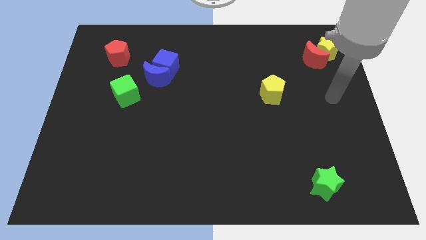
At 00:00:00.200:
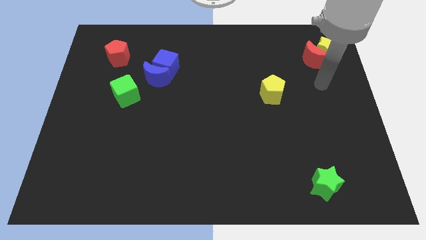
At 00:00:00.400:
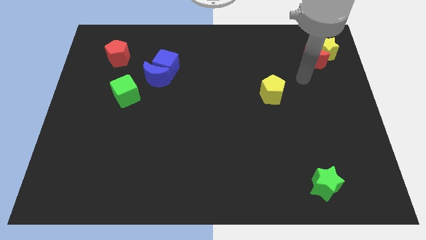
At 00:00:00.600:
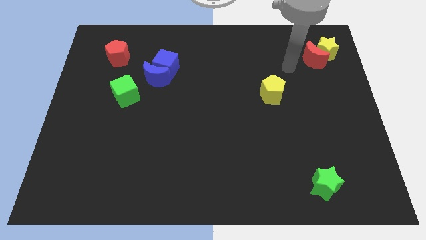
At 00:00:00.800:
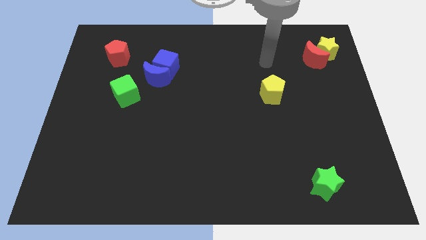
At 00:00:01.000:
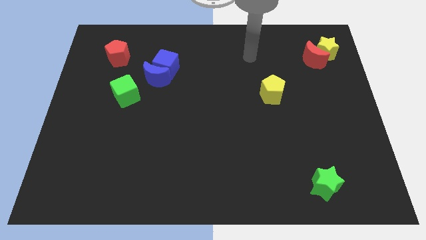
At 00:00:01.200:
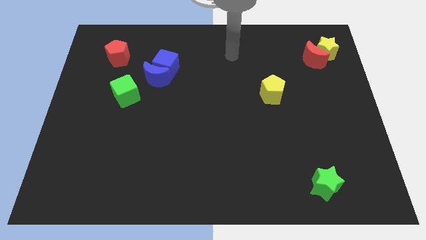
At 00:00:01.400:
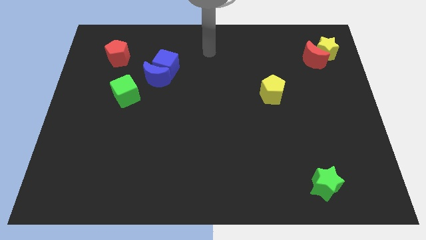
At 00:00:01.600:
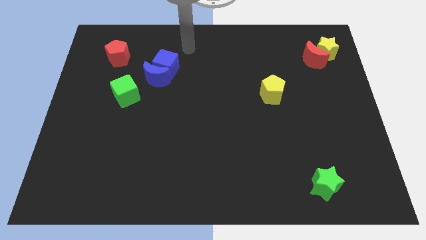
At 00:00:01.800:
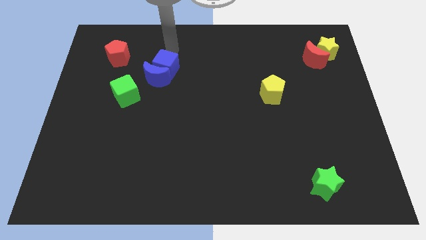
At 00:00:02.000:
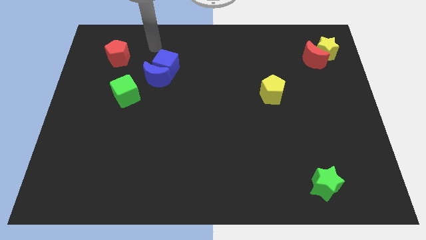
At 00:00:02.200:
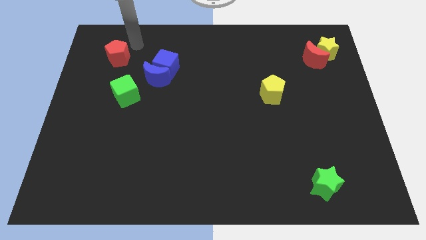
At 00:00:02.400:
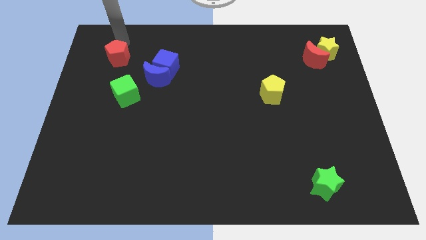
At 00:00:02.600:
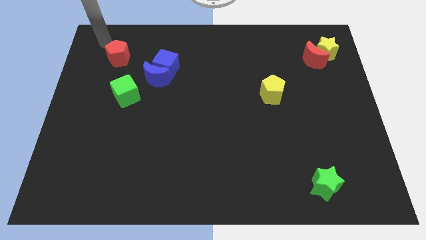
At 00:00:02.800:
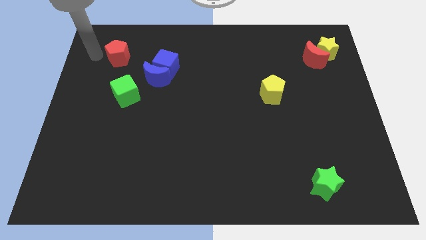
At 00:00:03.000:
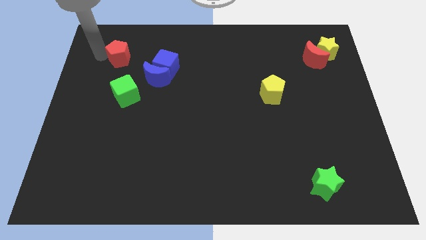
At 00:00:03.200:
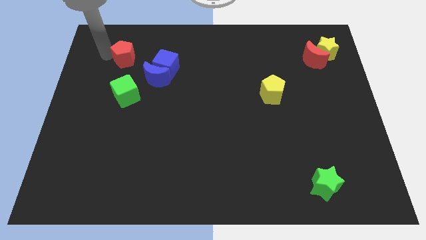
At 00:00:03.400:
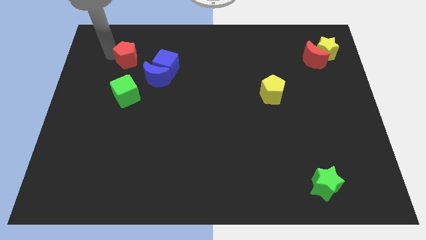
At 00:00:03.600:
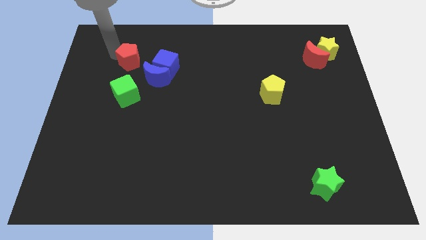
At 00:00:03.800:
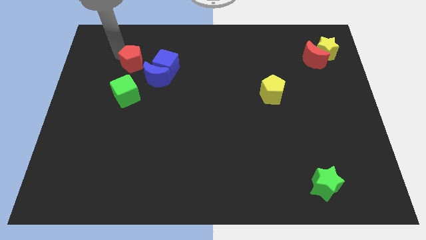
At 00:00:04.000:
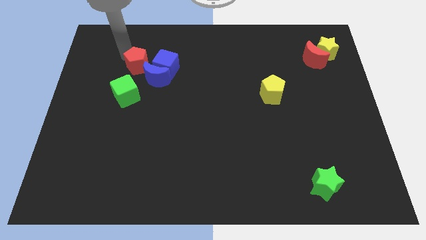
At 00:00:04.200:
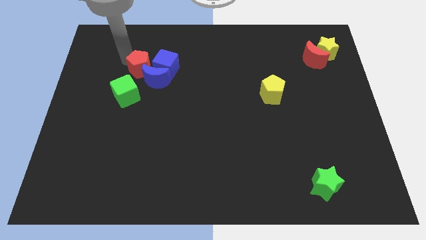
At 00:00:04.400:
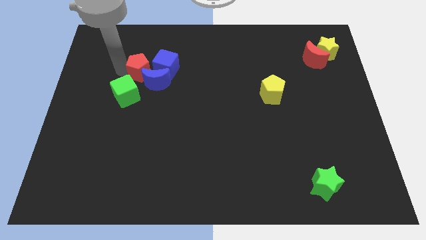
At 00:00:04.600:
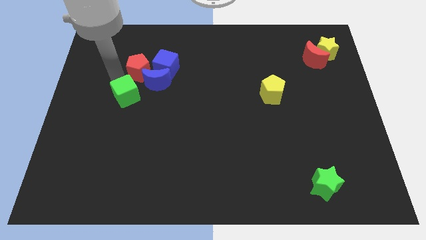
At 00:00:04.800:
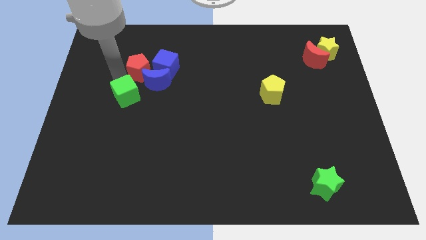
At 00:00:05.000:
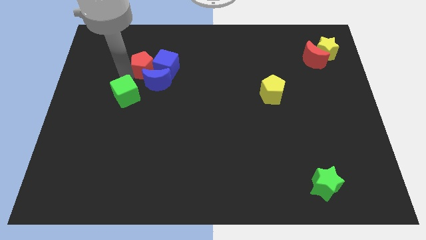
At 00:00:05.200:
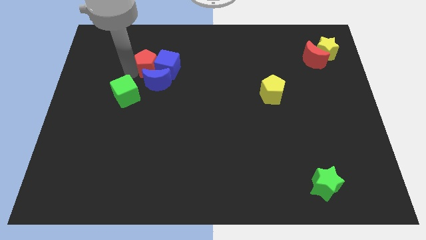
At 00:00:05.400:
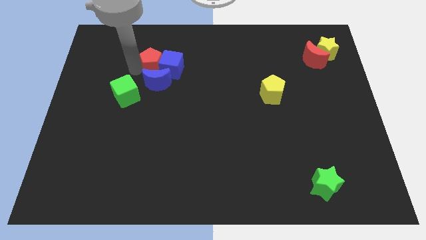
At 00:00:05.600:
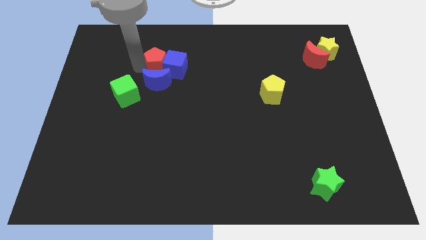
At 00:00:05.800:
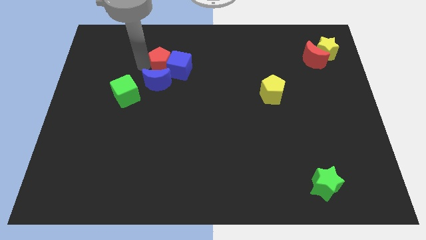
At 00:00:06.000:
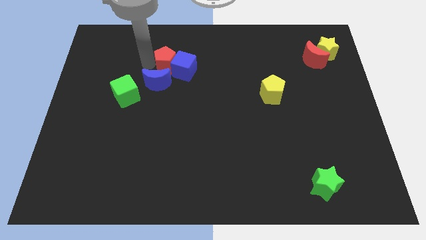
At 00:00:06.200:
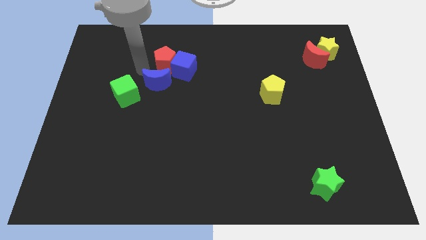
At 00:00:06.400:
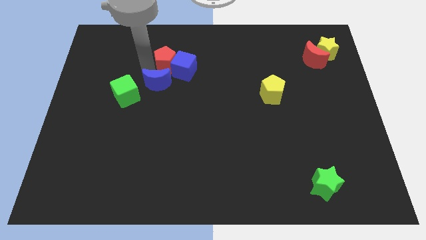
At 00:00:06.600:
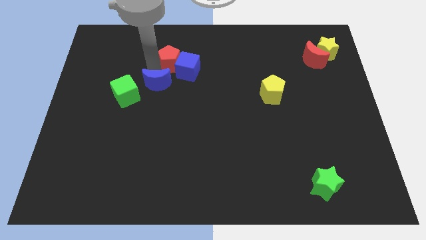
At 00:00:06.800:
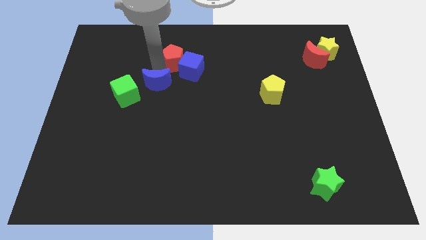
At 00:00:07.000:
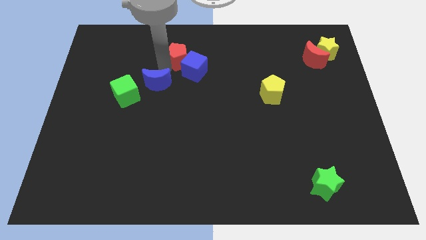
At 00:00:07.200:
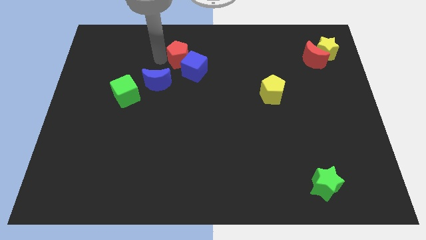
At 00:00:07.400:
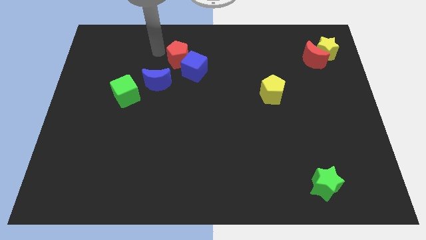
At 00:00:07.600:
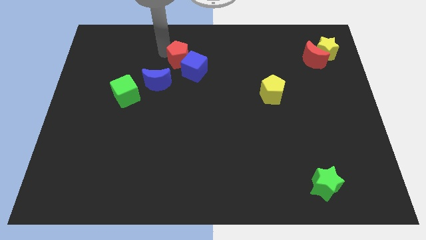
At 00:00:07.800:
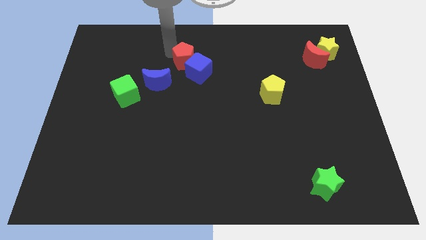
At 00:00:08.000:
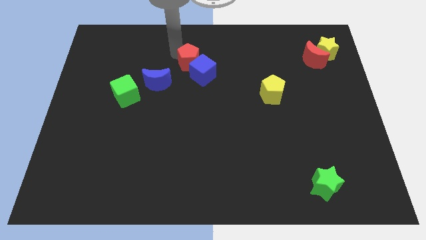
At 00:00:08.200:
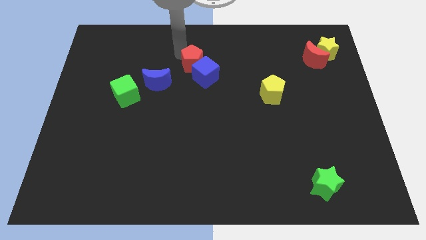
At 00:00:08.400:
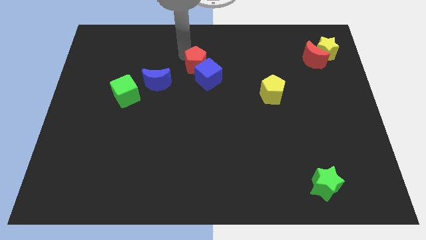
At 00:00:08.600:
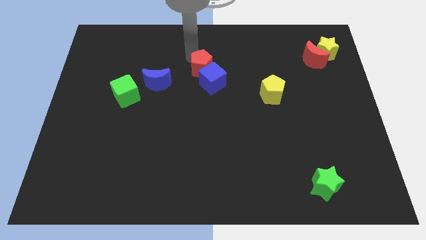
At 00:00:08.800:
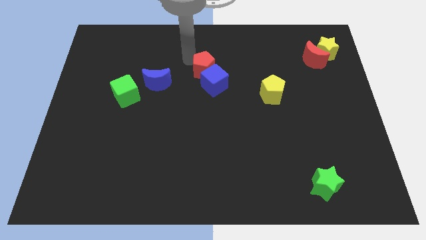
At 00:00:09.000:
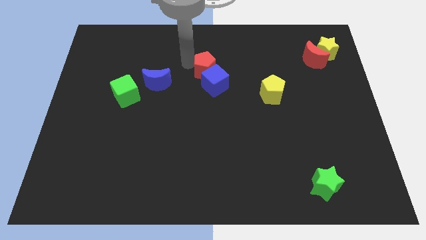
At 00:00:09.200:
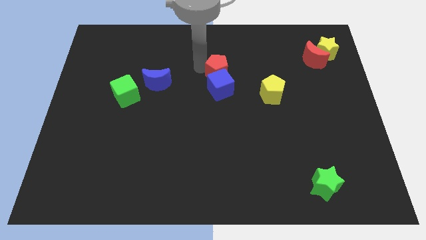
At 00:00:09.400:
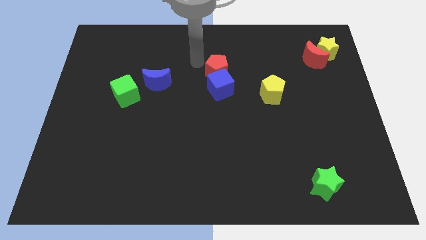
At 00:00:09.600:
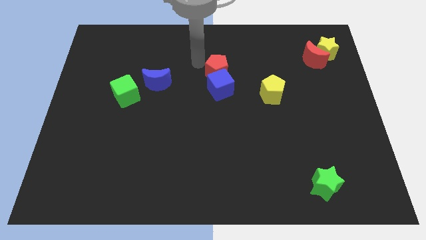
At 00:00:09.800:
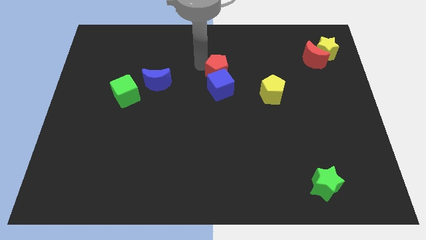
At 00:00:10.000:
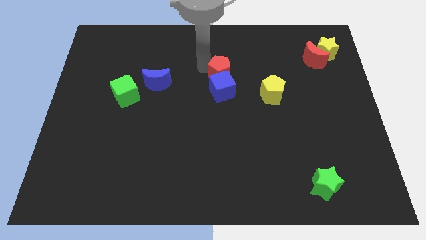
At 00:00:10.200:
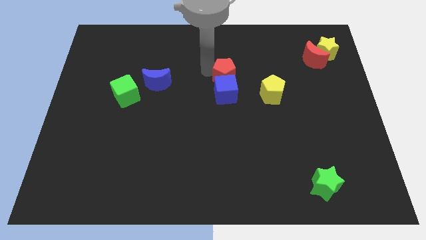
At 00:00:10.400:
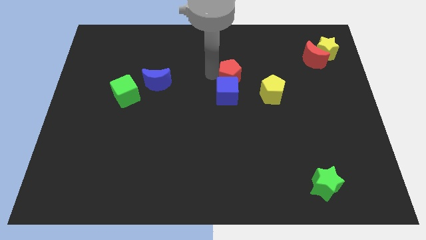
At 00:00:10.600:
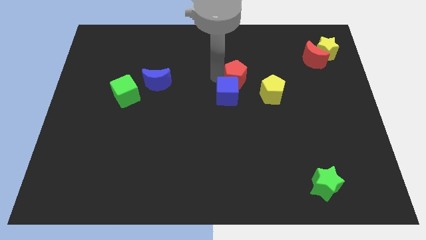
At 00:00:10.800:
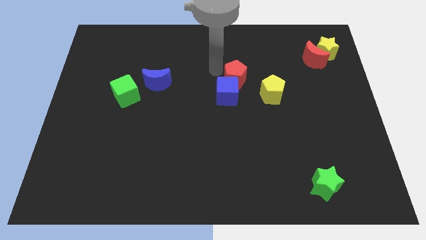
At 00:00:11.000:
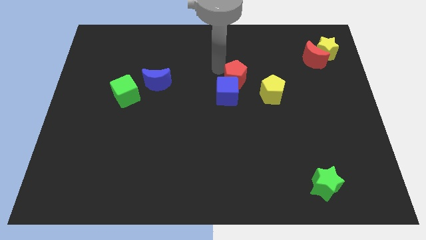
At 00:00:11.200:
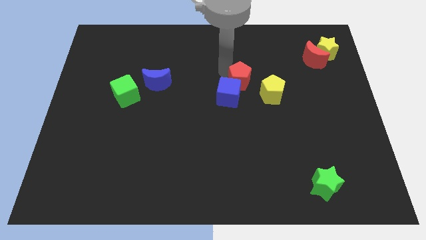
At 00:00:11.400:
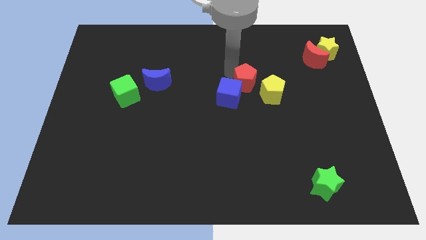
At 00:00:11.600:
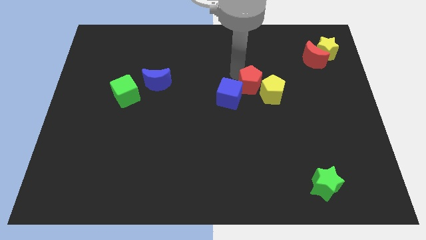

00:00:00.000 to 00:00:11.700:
put the red pentagon next to the yellow pentagon

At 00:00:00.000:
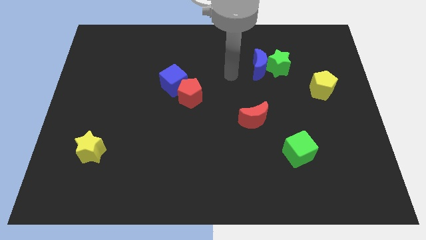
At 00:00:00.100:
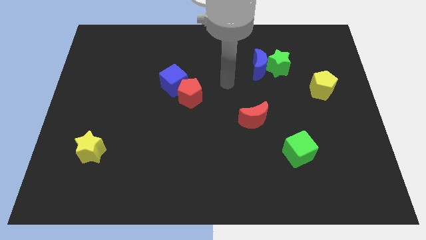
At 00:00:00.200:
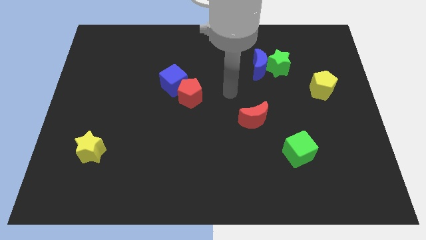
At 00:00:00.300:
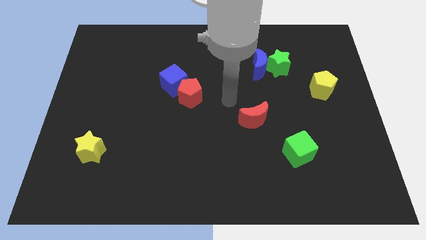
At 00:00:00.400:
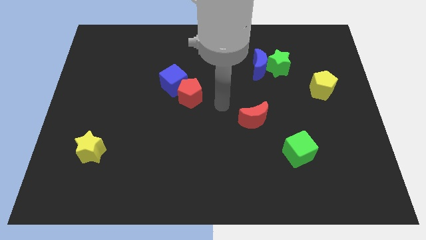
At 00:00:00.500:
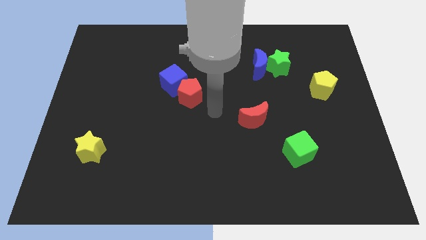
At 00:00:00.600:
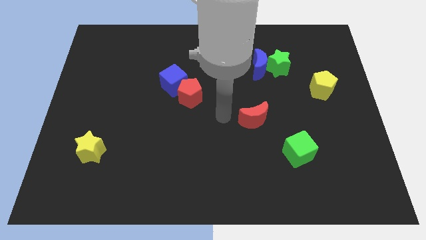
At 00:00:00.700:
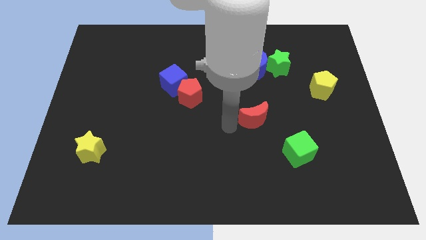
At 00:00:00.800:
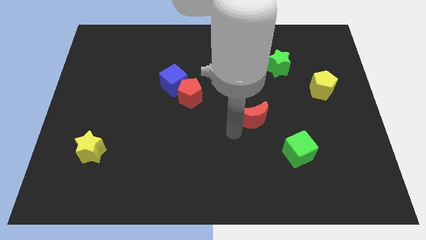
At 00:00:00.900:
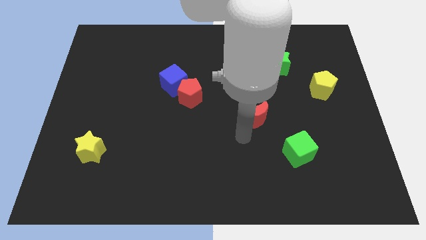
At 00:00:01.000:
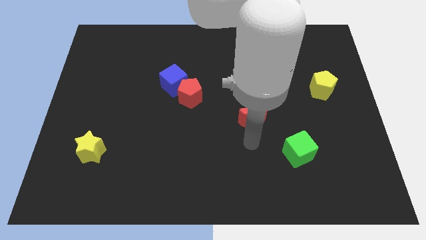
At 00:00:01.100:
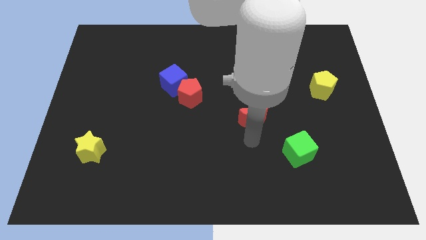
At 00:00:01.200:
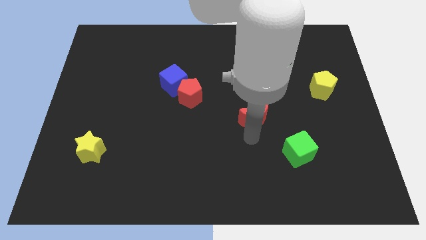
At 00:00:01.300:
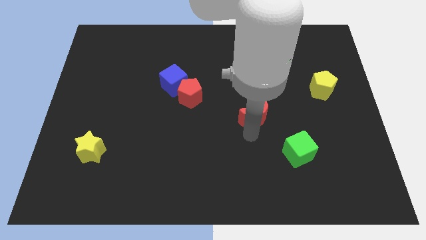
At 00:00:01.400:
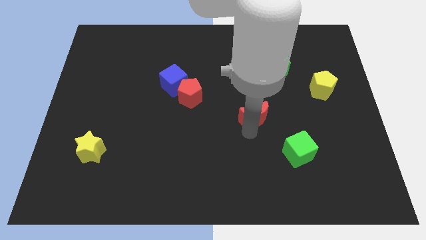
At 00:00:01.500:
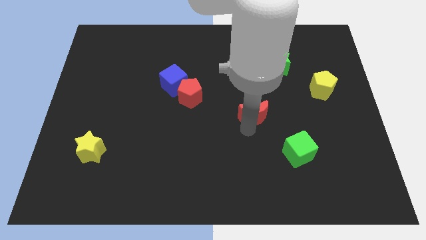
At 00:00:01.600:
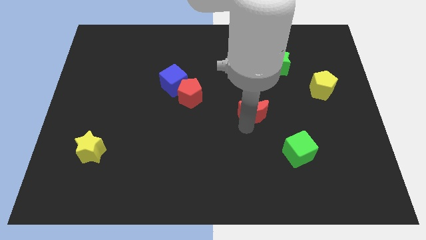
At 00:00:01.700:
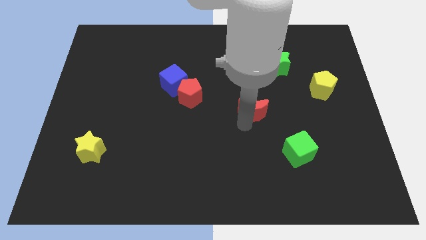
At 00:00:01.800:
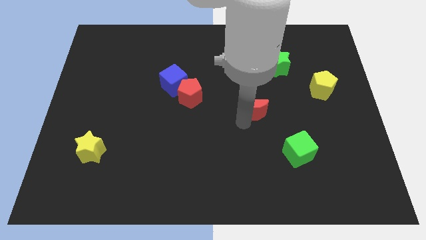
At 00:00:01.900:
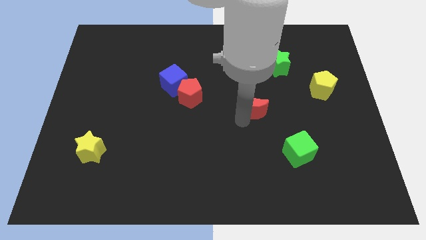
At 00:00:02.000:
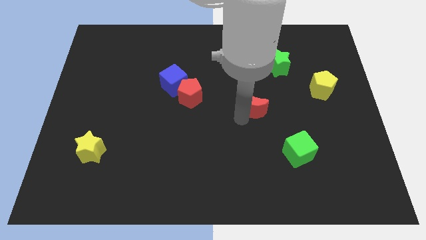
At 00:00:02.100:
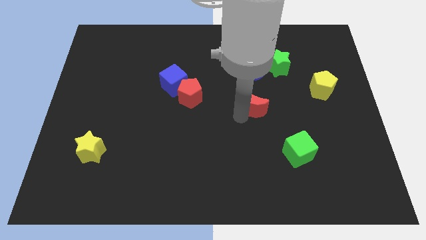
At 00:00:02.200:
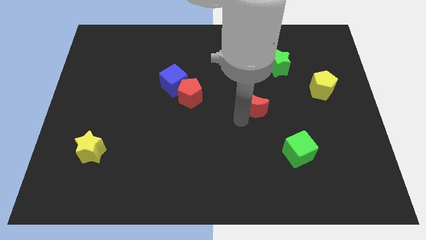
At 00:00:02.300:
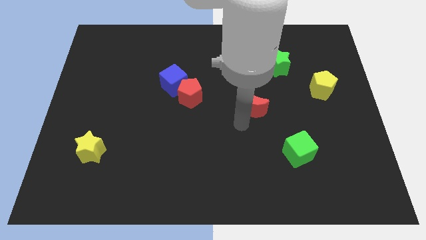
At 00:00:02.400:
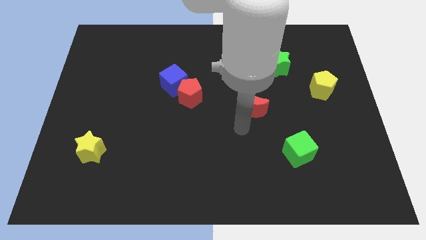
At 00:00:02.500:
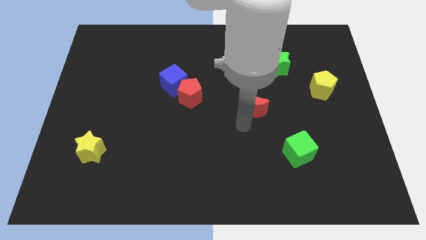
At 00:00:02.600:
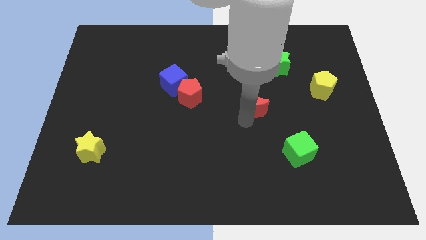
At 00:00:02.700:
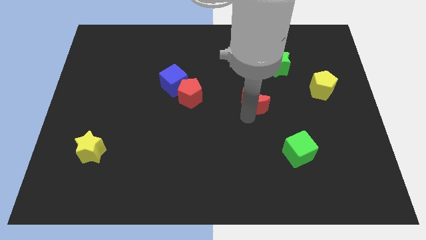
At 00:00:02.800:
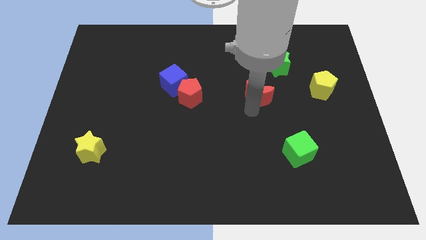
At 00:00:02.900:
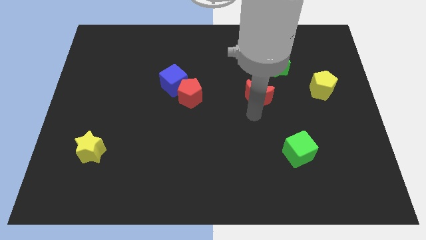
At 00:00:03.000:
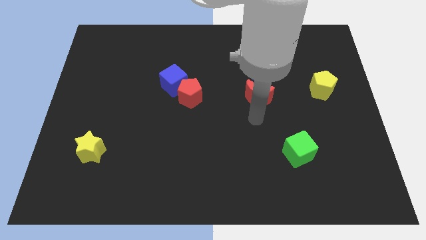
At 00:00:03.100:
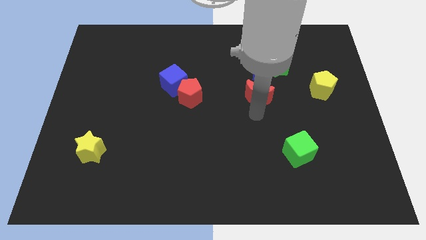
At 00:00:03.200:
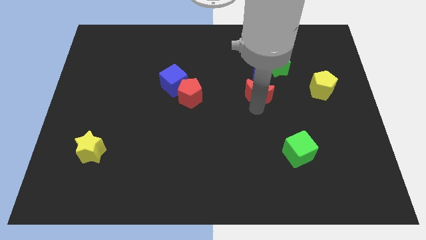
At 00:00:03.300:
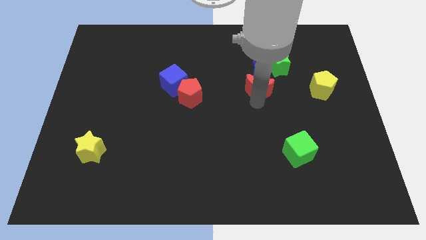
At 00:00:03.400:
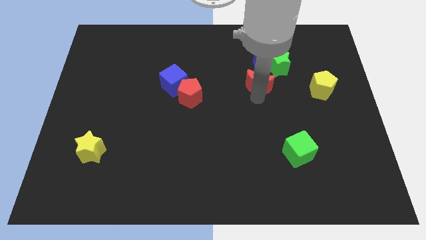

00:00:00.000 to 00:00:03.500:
put the red moon next to the blue moon
